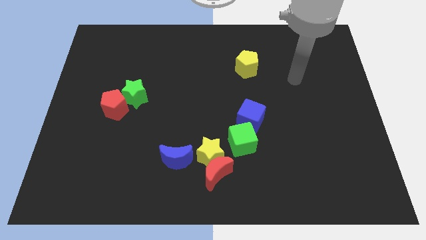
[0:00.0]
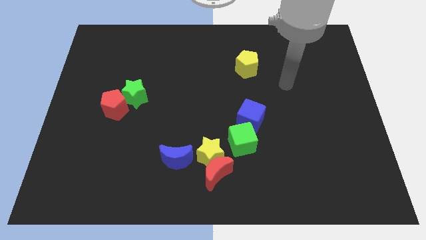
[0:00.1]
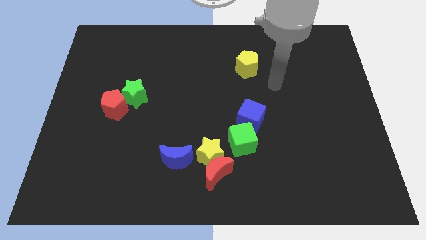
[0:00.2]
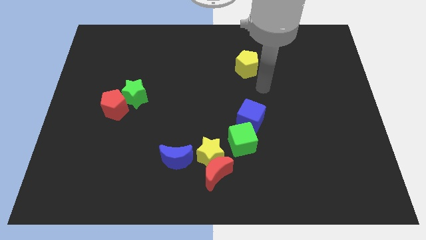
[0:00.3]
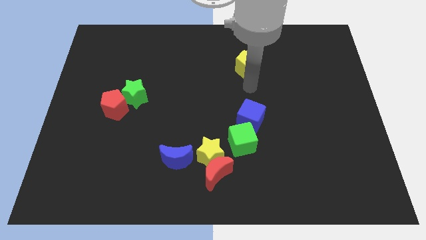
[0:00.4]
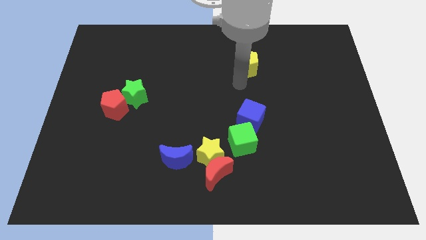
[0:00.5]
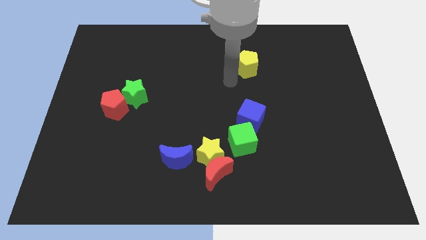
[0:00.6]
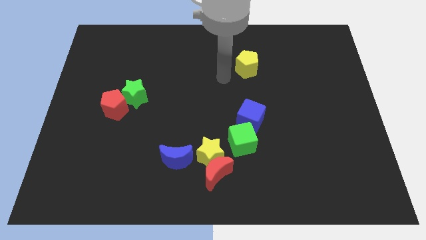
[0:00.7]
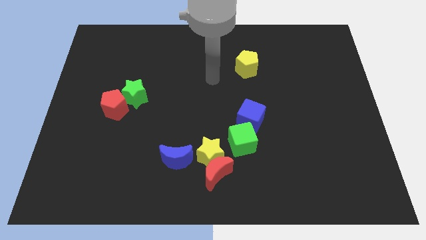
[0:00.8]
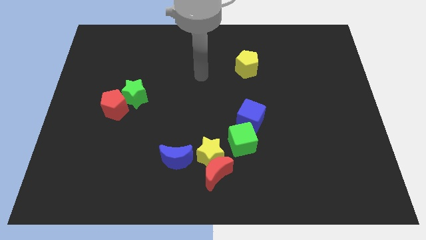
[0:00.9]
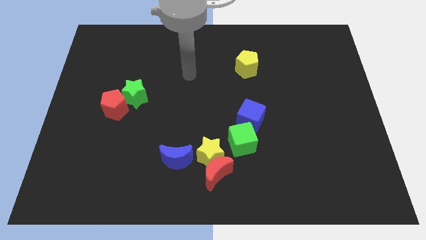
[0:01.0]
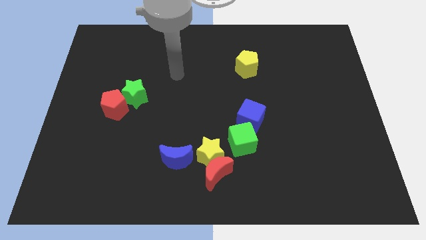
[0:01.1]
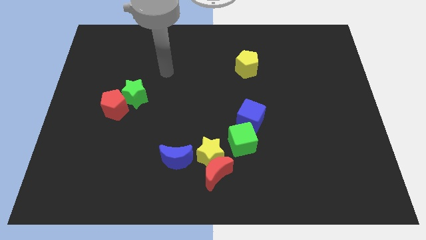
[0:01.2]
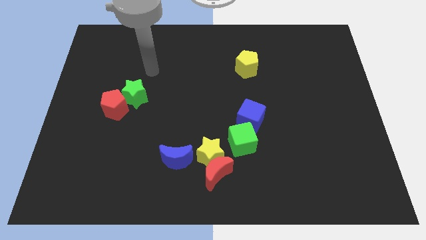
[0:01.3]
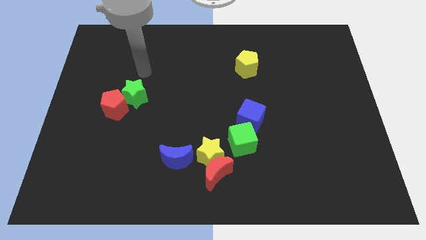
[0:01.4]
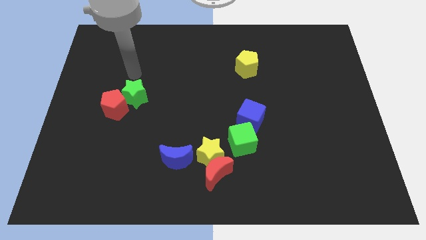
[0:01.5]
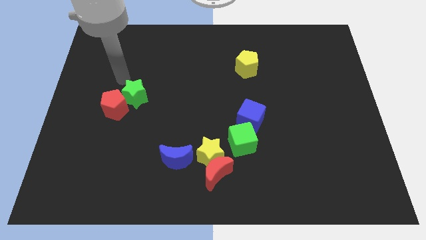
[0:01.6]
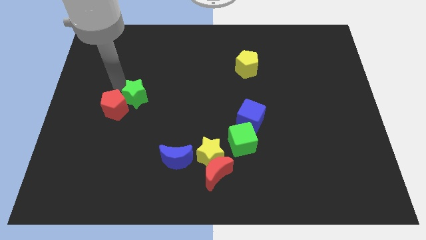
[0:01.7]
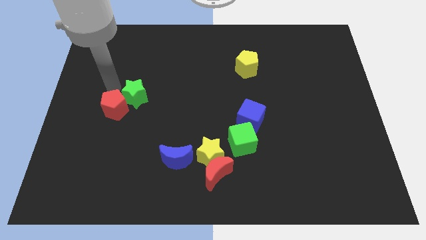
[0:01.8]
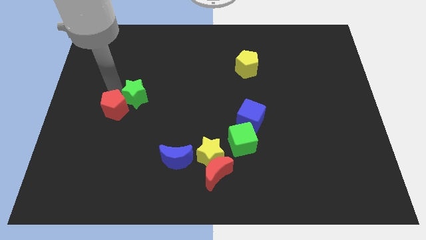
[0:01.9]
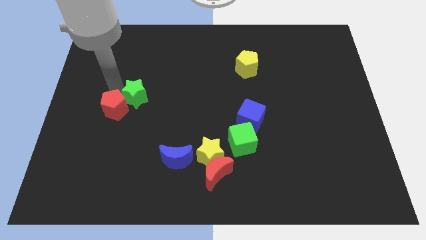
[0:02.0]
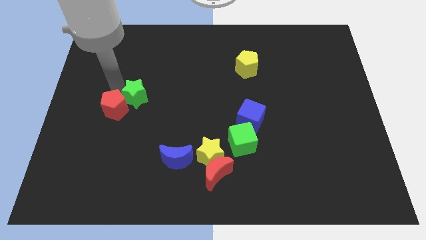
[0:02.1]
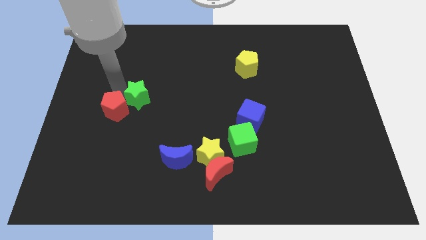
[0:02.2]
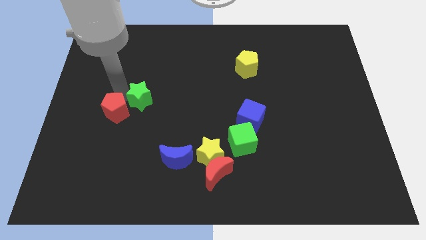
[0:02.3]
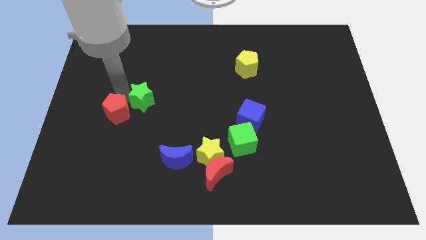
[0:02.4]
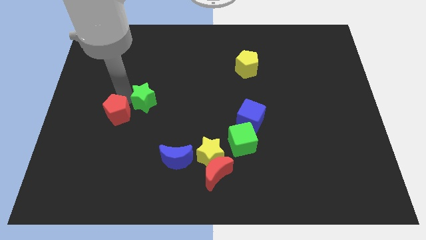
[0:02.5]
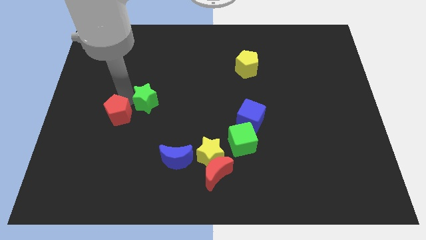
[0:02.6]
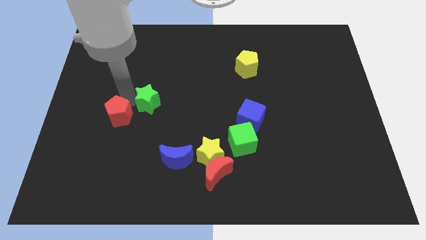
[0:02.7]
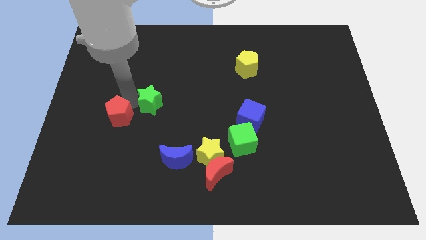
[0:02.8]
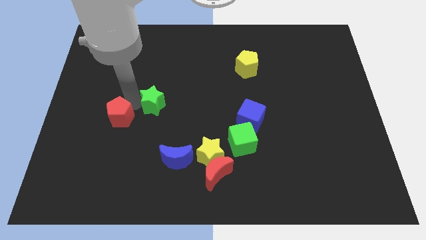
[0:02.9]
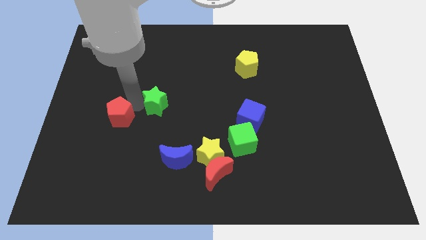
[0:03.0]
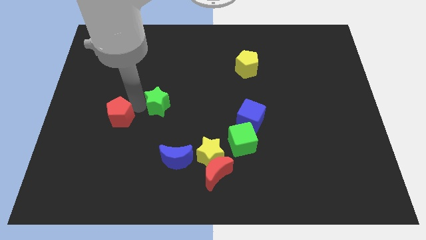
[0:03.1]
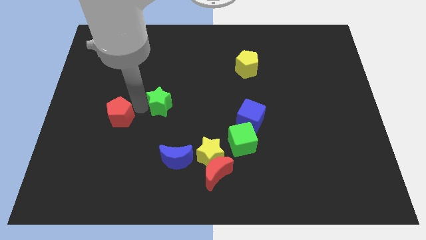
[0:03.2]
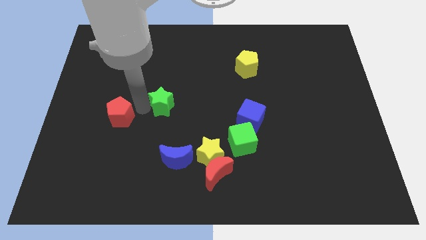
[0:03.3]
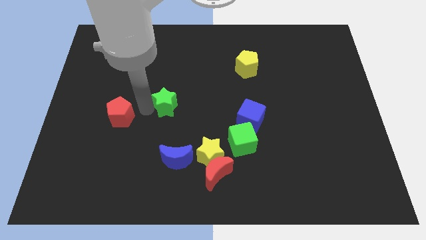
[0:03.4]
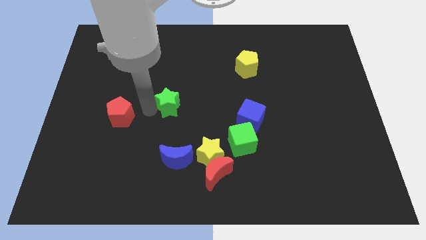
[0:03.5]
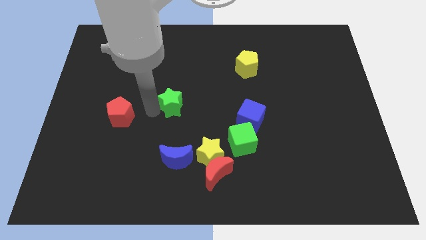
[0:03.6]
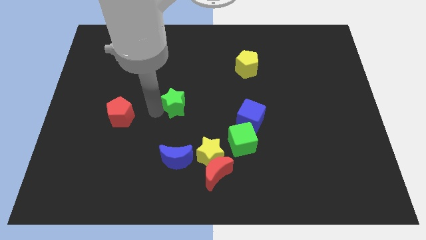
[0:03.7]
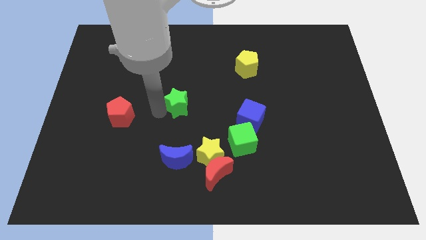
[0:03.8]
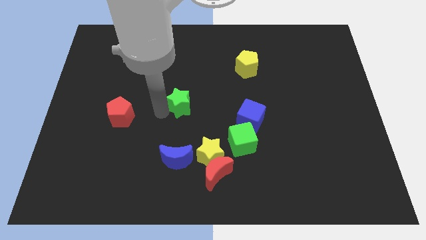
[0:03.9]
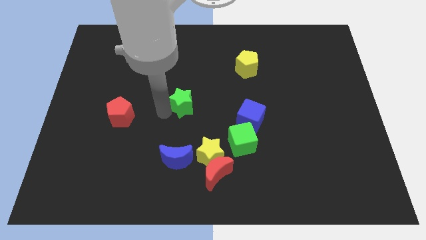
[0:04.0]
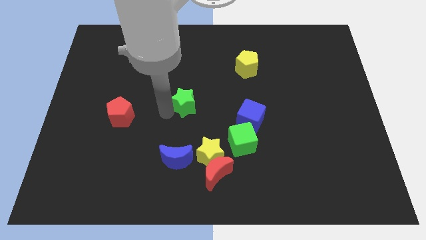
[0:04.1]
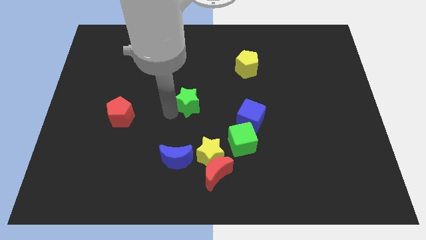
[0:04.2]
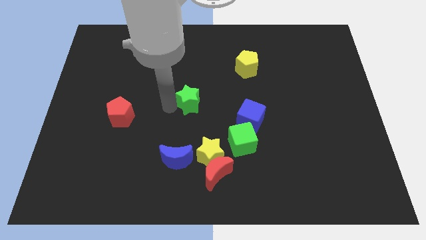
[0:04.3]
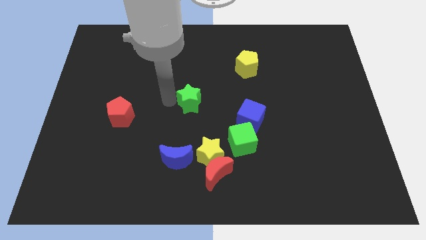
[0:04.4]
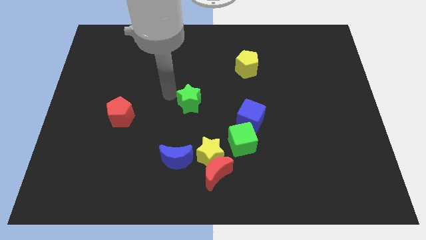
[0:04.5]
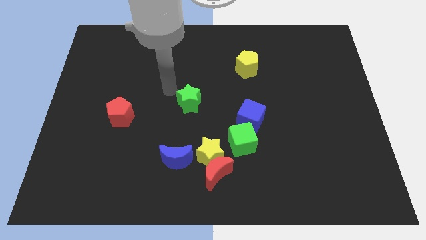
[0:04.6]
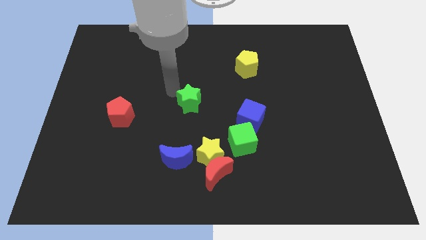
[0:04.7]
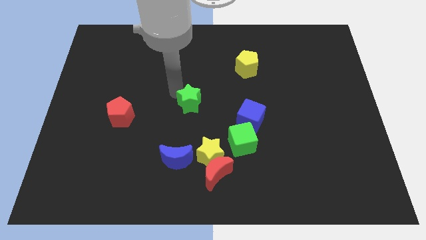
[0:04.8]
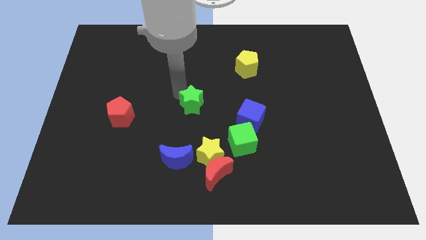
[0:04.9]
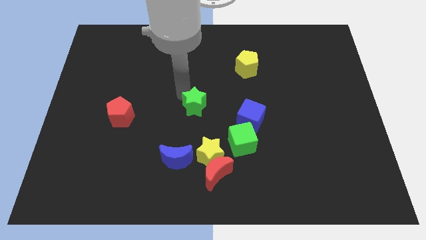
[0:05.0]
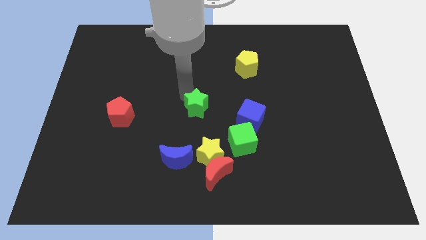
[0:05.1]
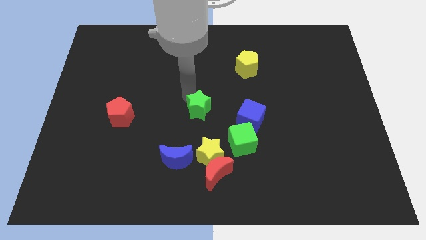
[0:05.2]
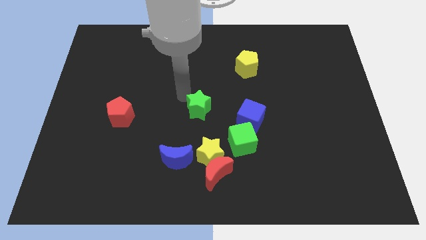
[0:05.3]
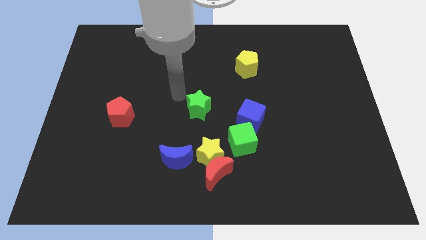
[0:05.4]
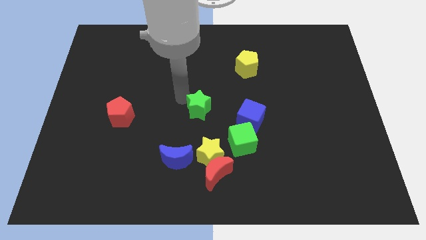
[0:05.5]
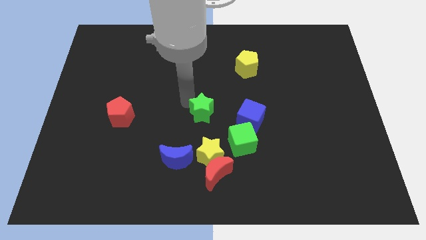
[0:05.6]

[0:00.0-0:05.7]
put the green star to the top left side of the green cube

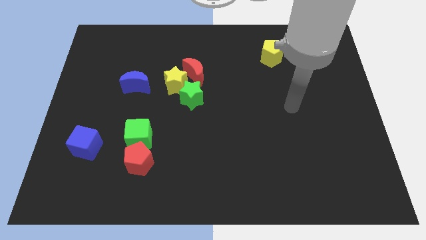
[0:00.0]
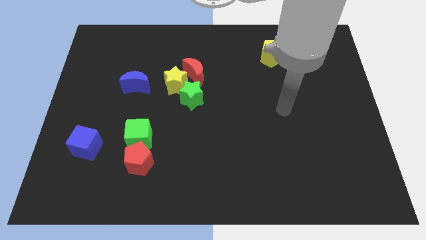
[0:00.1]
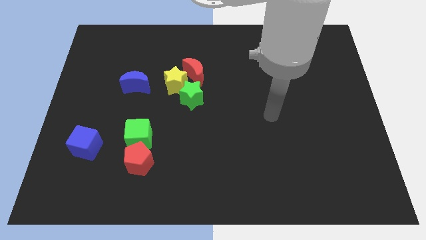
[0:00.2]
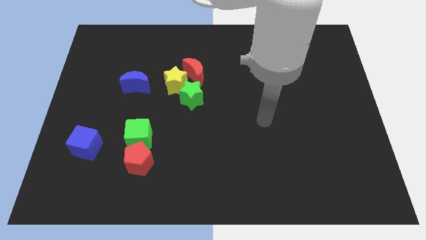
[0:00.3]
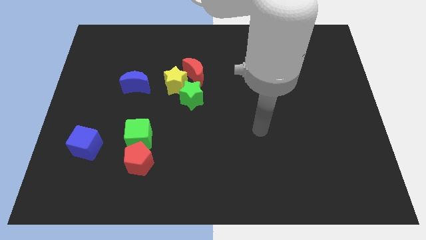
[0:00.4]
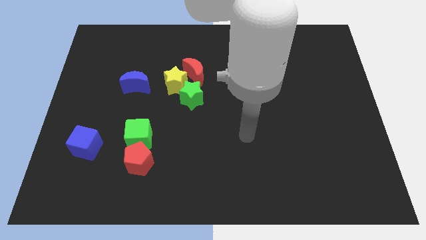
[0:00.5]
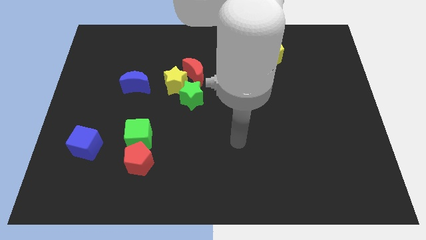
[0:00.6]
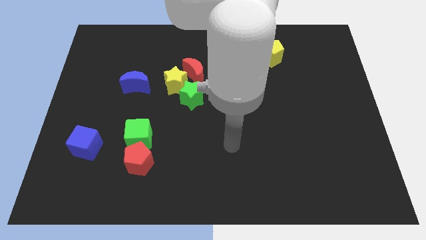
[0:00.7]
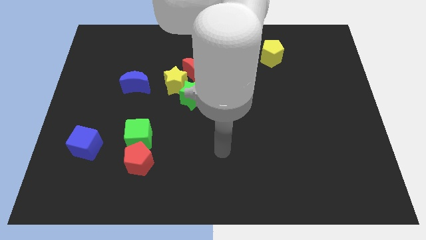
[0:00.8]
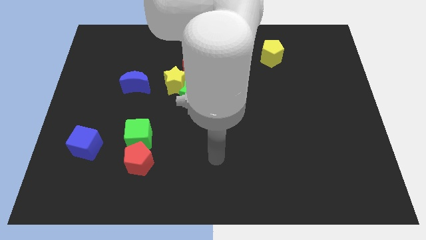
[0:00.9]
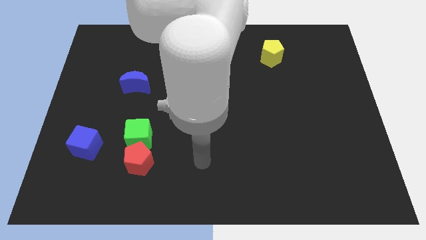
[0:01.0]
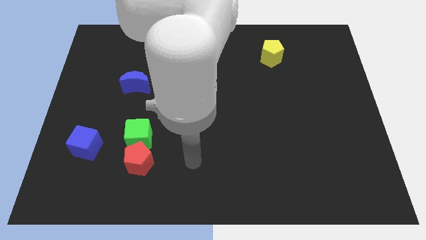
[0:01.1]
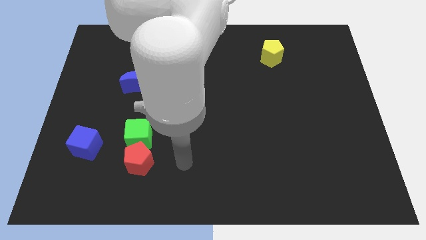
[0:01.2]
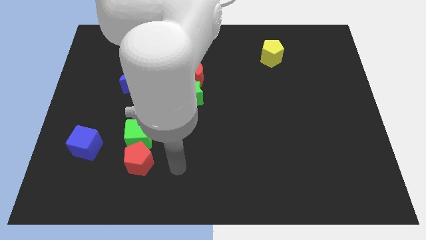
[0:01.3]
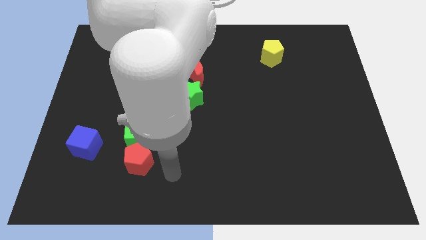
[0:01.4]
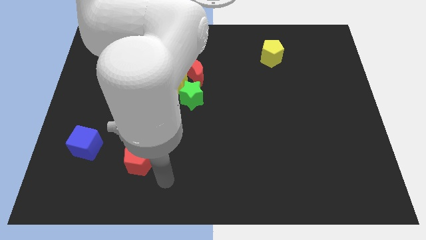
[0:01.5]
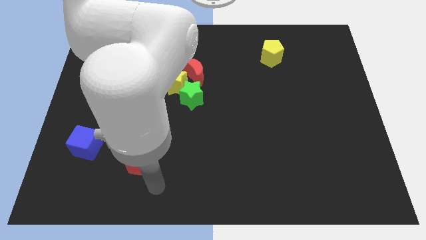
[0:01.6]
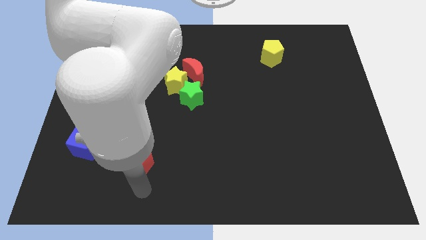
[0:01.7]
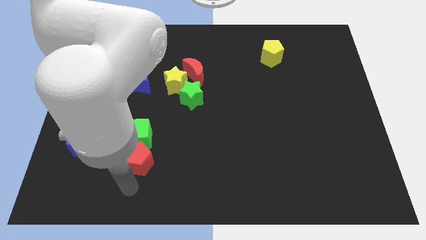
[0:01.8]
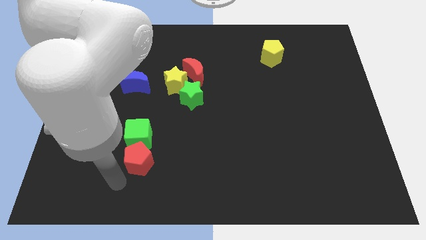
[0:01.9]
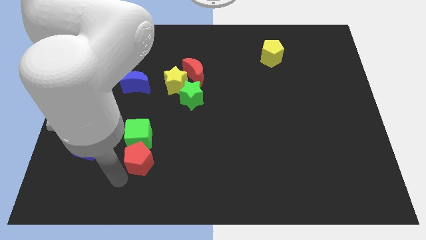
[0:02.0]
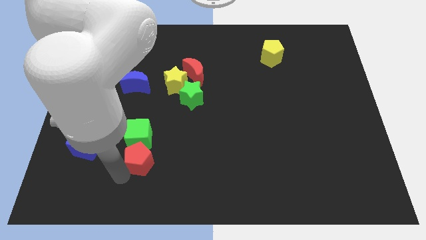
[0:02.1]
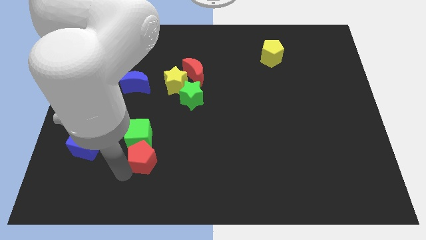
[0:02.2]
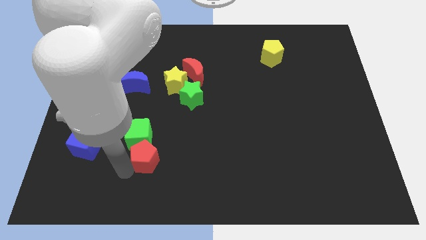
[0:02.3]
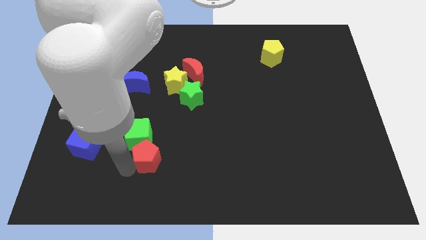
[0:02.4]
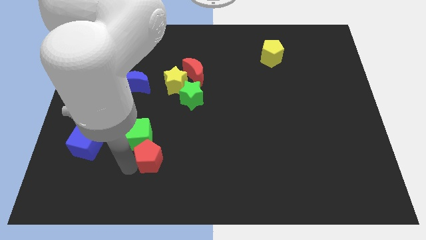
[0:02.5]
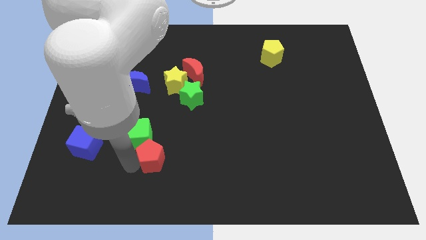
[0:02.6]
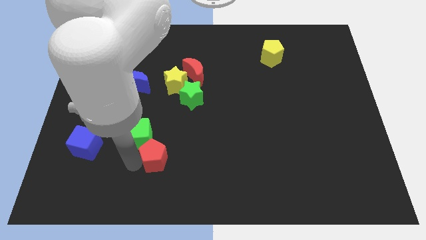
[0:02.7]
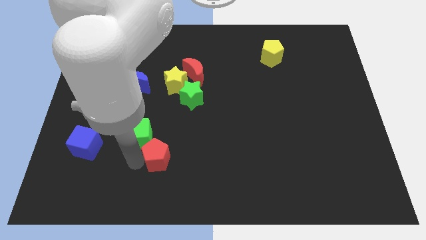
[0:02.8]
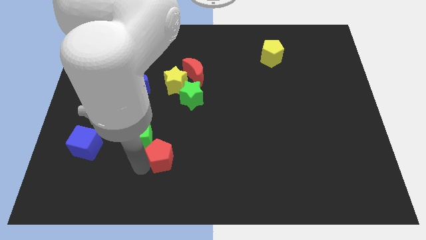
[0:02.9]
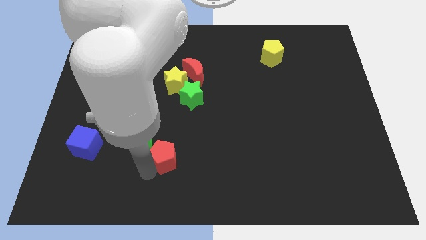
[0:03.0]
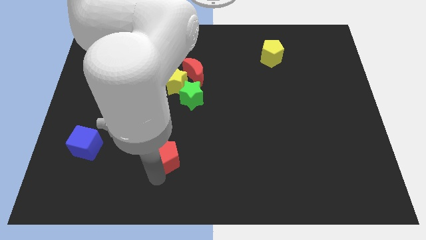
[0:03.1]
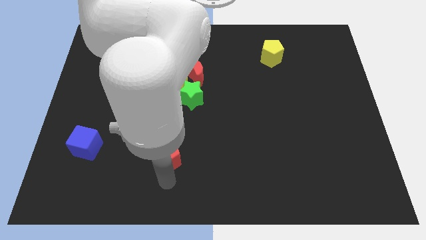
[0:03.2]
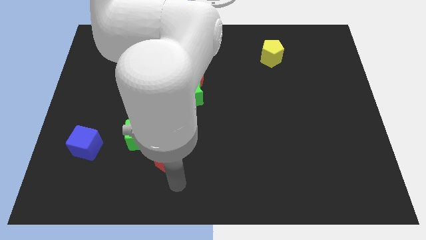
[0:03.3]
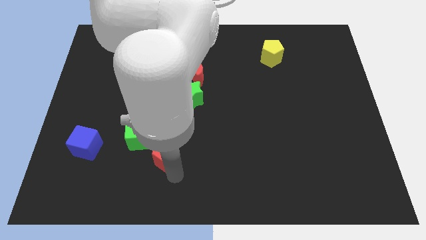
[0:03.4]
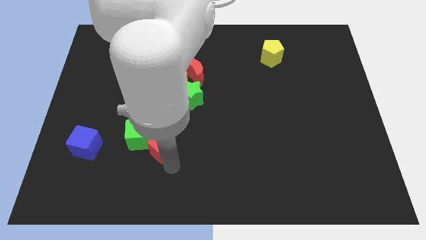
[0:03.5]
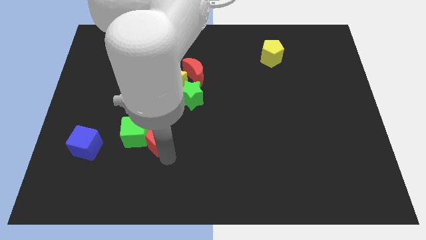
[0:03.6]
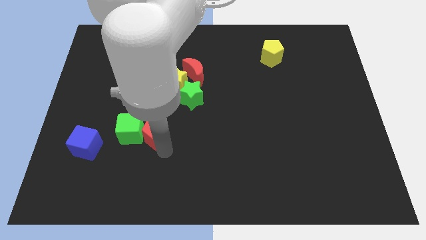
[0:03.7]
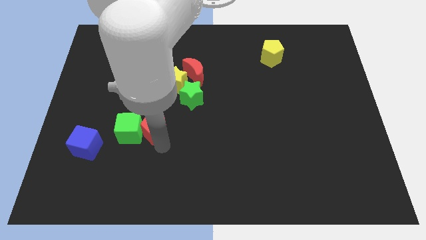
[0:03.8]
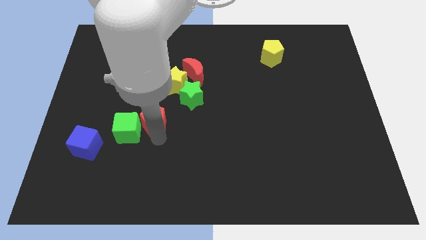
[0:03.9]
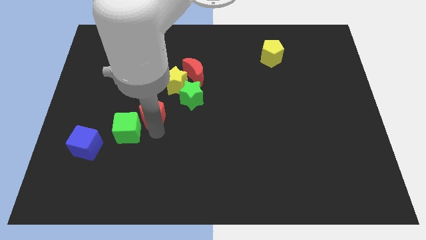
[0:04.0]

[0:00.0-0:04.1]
slide the red pentagon to the bottom right side of the blue moon
